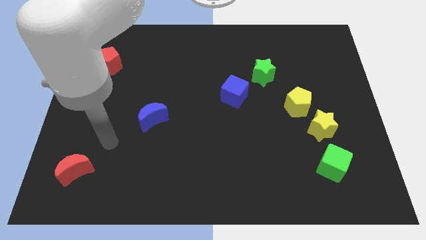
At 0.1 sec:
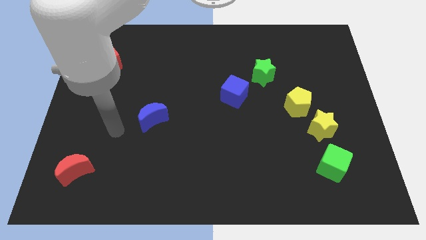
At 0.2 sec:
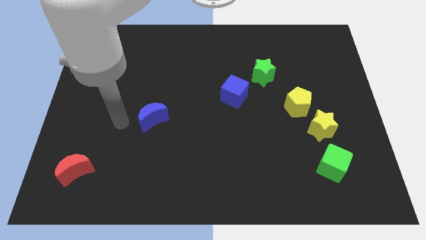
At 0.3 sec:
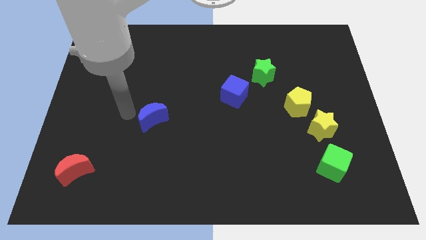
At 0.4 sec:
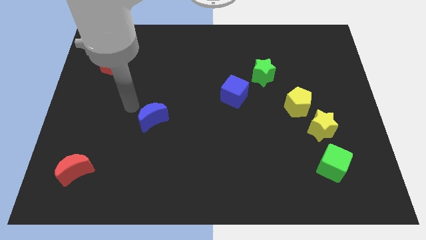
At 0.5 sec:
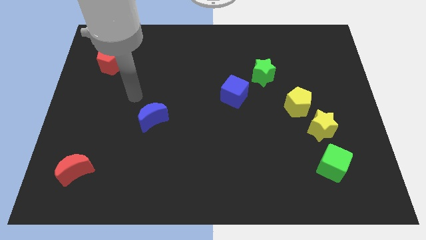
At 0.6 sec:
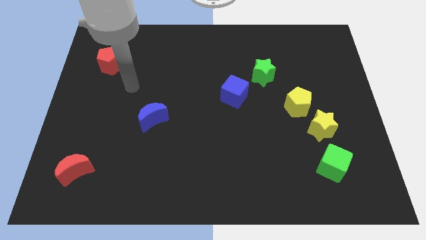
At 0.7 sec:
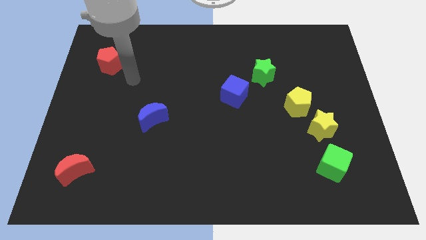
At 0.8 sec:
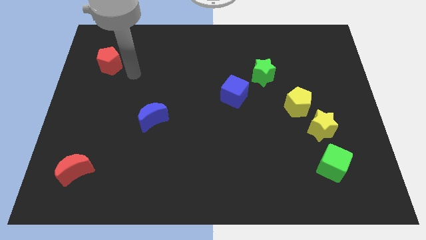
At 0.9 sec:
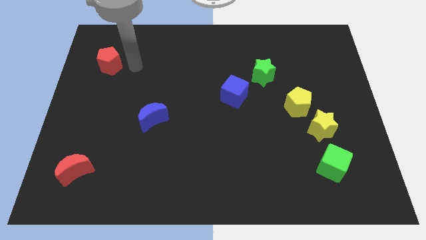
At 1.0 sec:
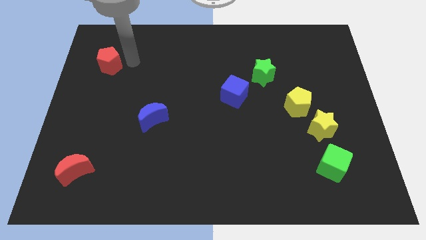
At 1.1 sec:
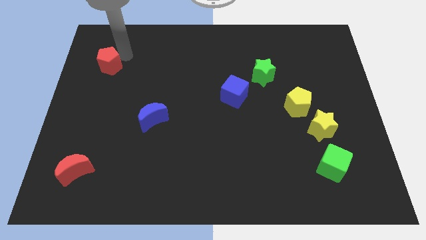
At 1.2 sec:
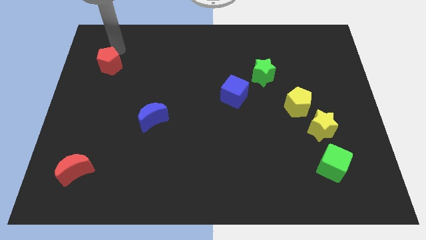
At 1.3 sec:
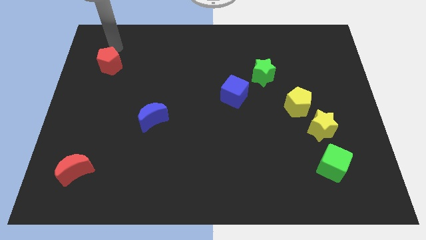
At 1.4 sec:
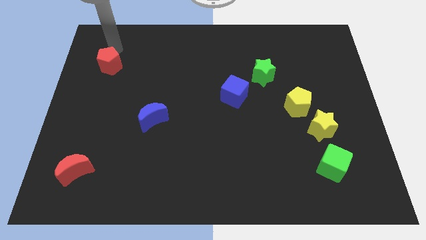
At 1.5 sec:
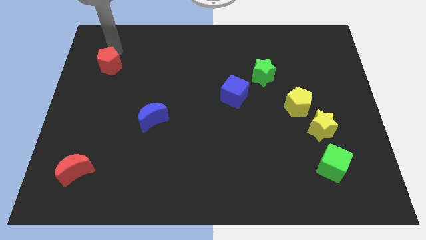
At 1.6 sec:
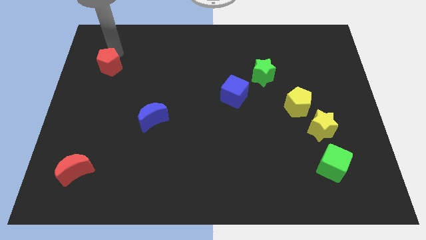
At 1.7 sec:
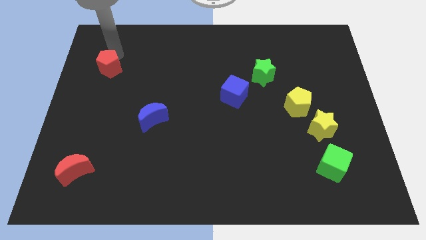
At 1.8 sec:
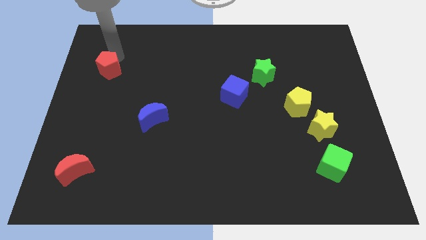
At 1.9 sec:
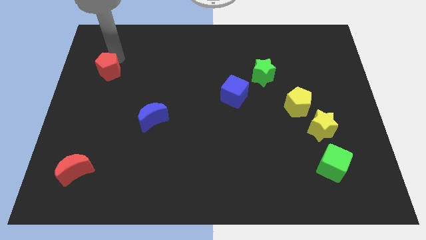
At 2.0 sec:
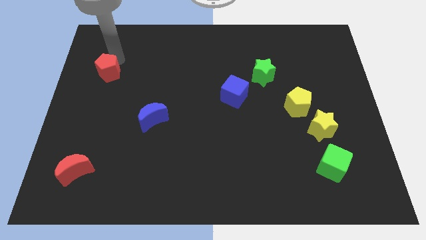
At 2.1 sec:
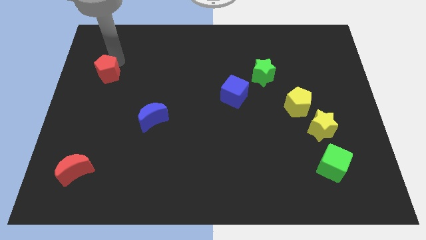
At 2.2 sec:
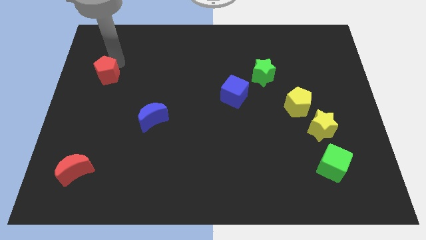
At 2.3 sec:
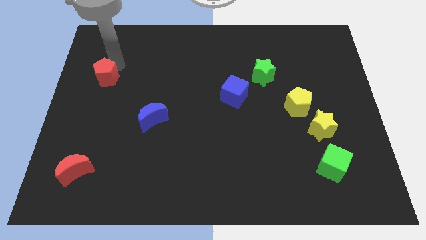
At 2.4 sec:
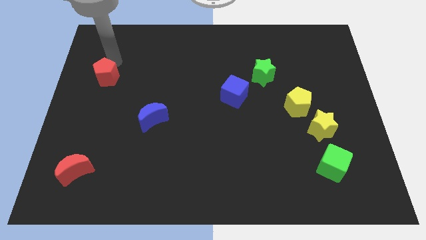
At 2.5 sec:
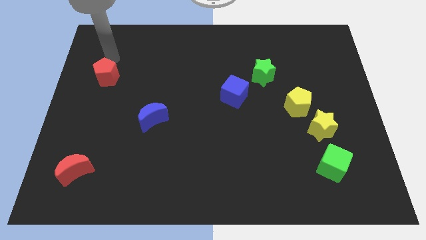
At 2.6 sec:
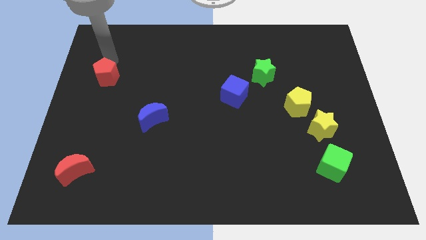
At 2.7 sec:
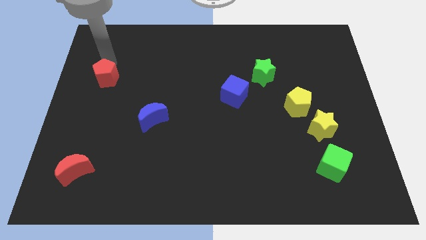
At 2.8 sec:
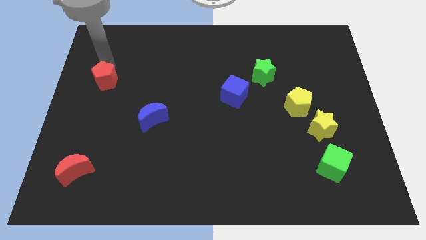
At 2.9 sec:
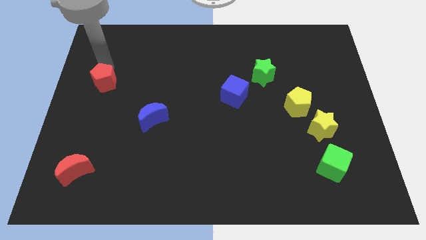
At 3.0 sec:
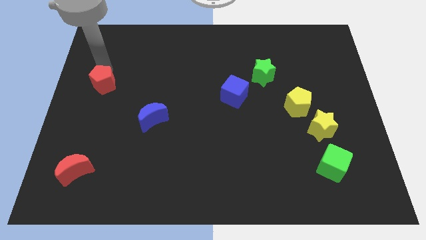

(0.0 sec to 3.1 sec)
push the red pentagon somewhat downwards

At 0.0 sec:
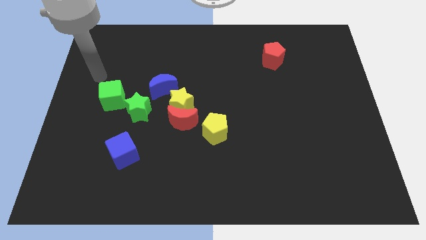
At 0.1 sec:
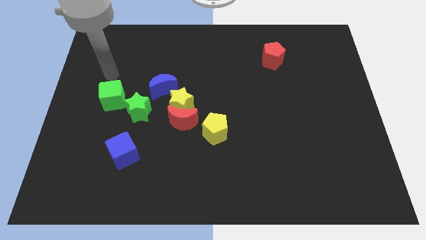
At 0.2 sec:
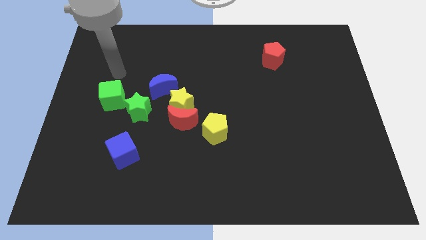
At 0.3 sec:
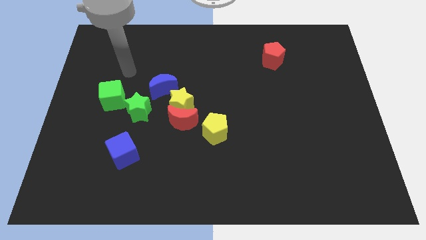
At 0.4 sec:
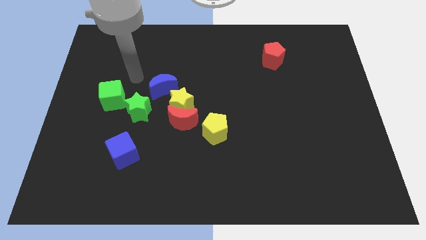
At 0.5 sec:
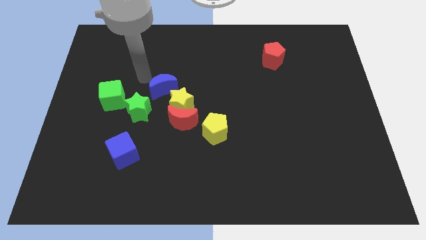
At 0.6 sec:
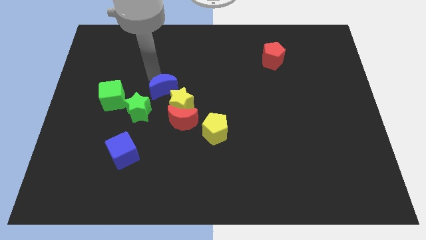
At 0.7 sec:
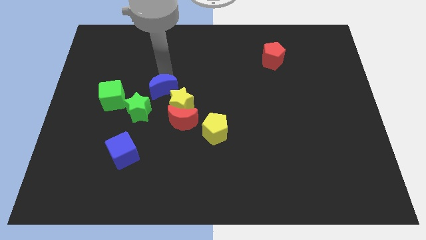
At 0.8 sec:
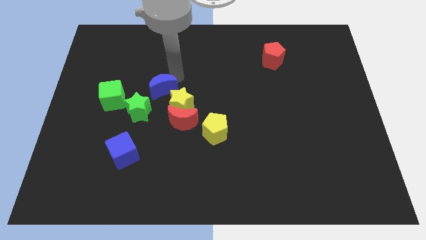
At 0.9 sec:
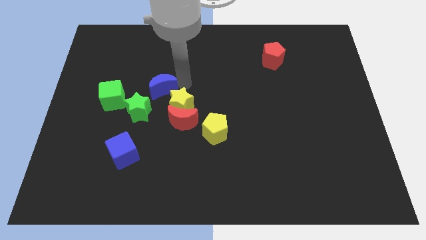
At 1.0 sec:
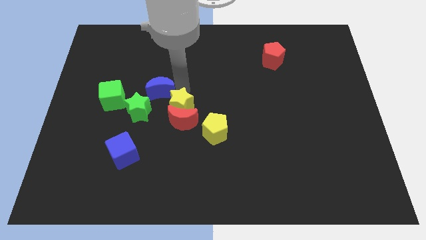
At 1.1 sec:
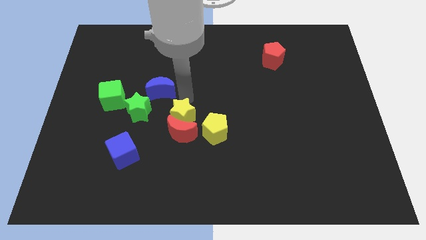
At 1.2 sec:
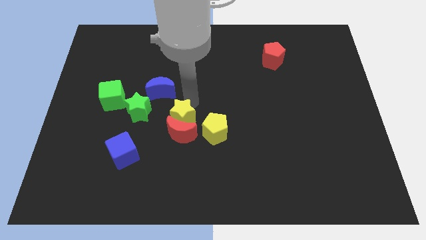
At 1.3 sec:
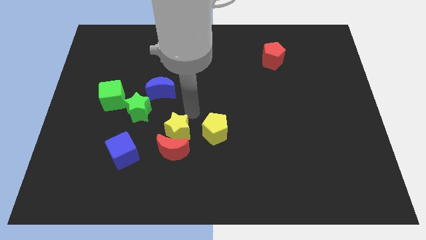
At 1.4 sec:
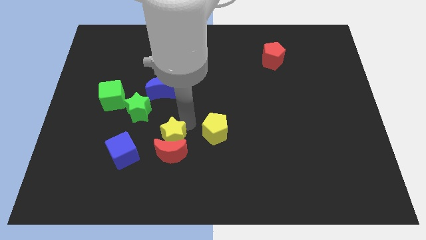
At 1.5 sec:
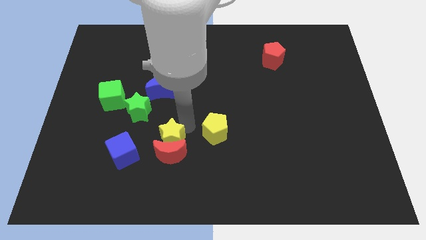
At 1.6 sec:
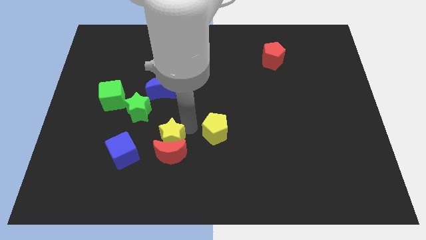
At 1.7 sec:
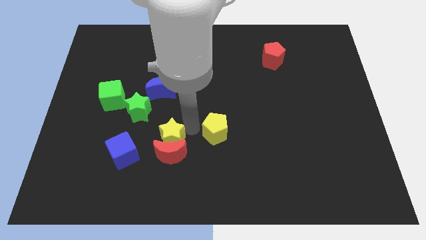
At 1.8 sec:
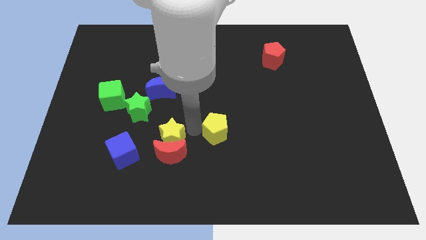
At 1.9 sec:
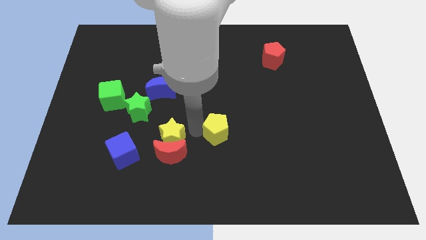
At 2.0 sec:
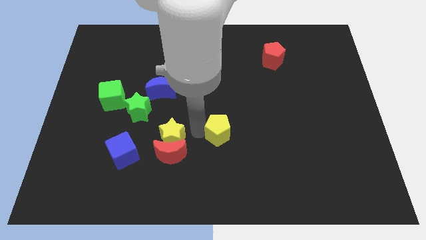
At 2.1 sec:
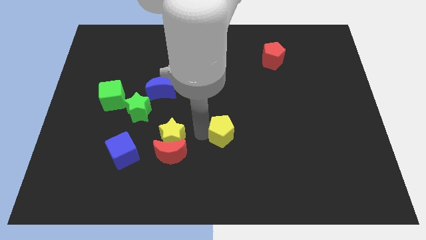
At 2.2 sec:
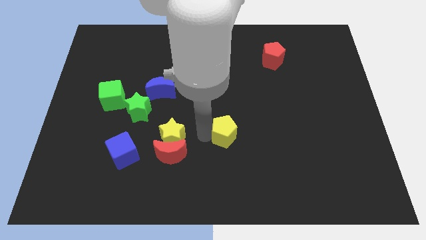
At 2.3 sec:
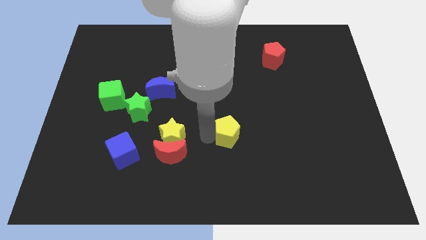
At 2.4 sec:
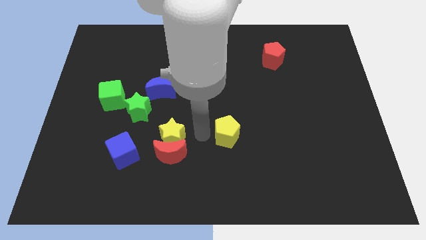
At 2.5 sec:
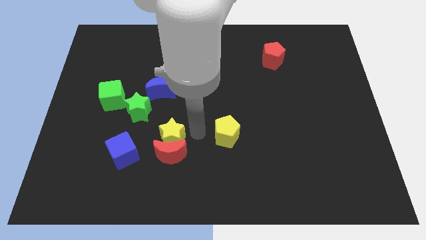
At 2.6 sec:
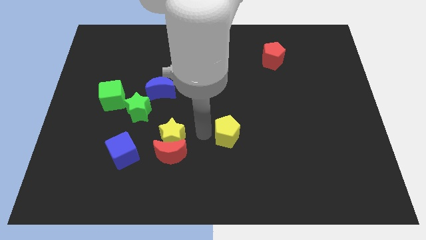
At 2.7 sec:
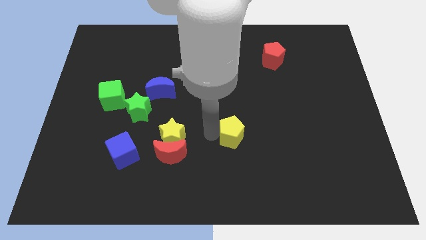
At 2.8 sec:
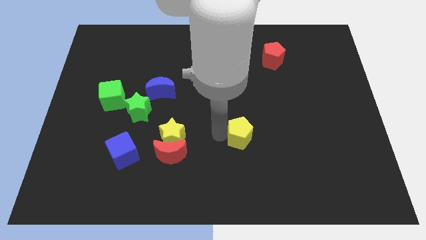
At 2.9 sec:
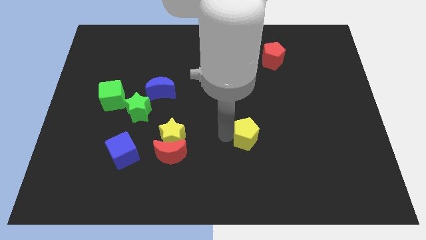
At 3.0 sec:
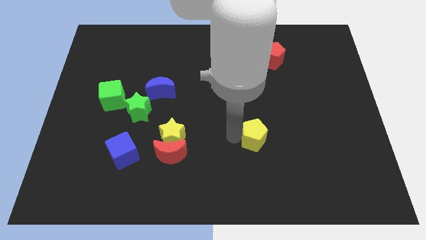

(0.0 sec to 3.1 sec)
slide the yellow pentagon right slightly

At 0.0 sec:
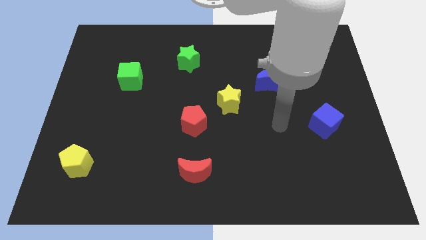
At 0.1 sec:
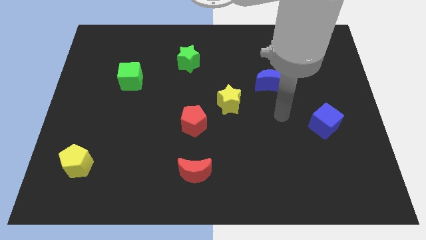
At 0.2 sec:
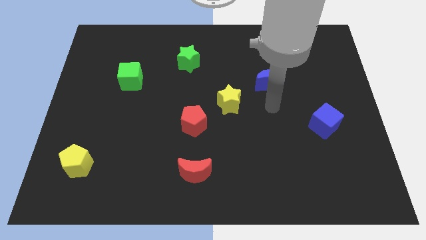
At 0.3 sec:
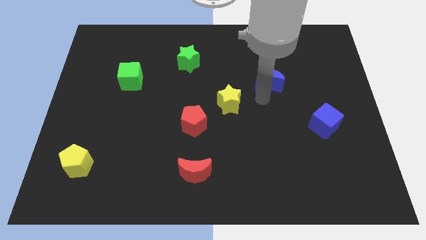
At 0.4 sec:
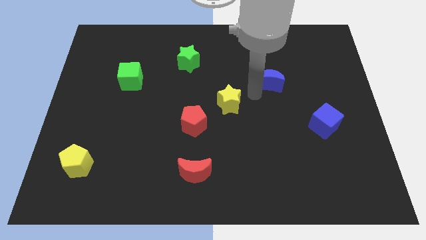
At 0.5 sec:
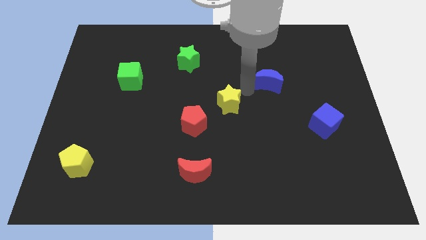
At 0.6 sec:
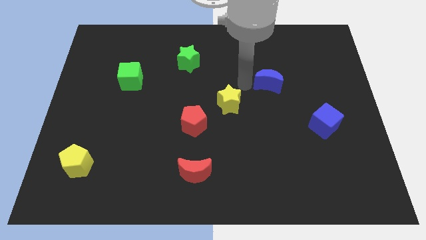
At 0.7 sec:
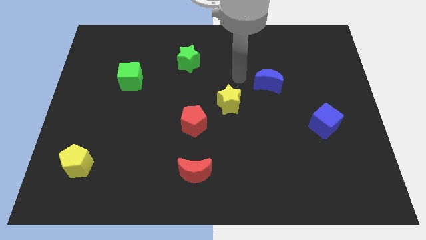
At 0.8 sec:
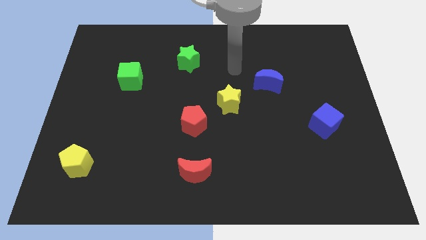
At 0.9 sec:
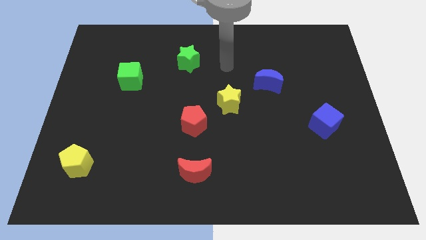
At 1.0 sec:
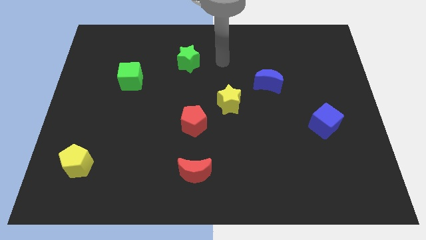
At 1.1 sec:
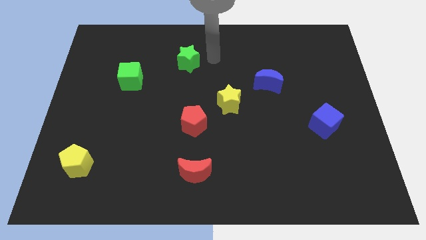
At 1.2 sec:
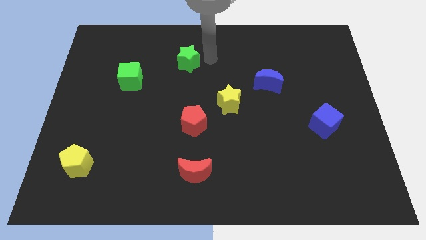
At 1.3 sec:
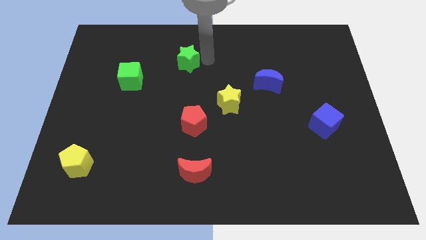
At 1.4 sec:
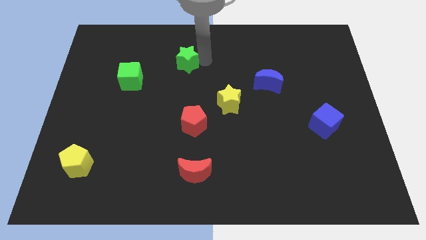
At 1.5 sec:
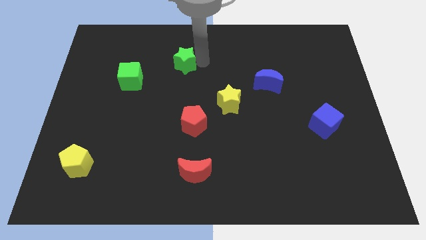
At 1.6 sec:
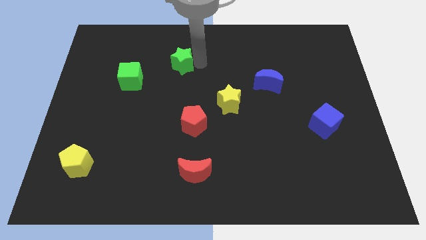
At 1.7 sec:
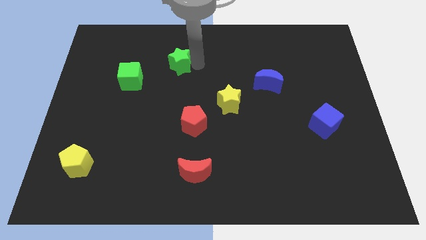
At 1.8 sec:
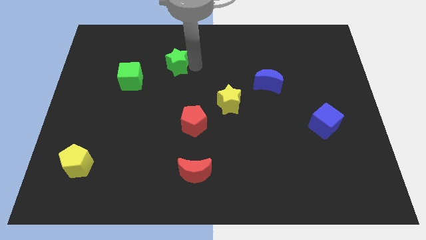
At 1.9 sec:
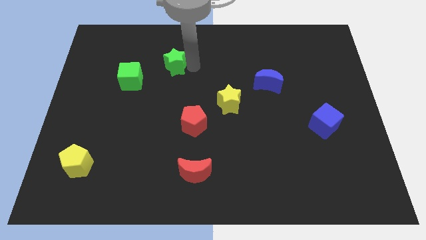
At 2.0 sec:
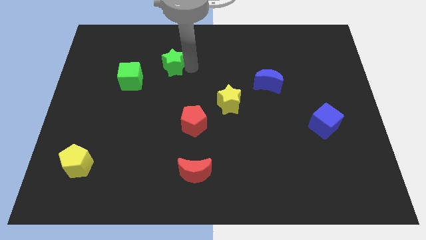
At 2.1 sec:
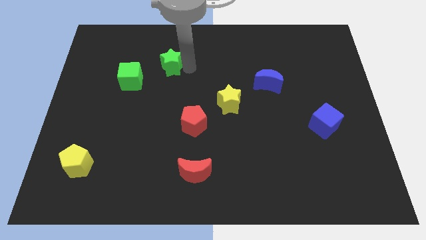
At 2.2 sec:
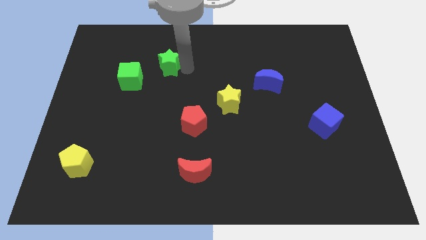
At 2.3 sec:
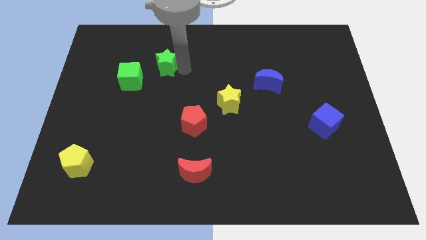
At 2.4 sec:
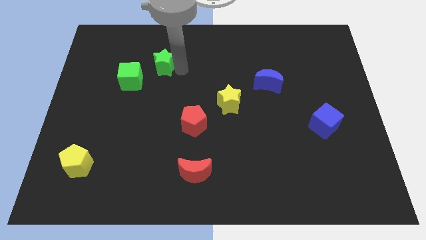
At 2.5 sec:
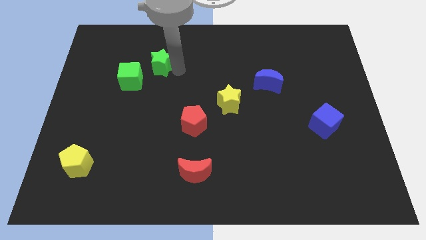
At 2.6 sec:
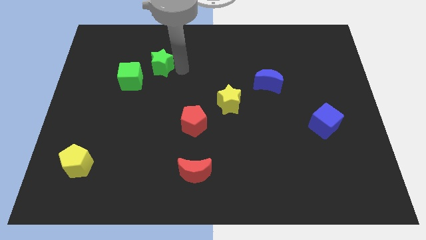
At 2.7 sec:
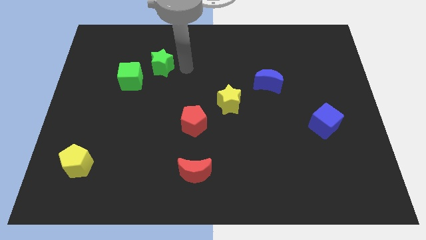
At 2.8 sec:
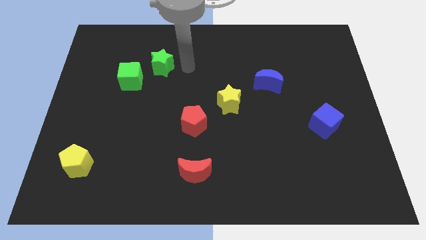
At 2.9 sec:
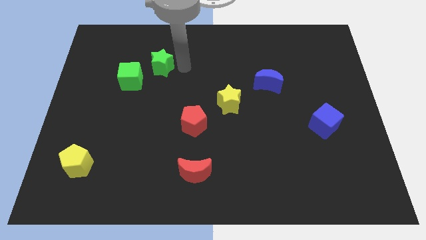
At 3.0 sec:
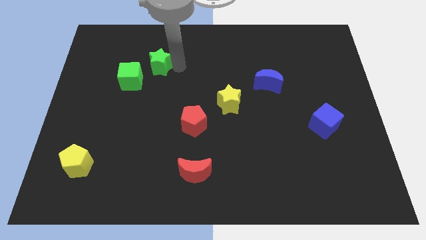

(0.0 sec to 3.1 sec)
slightly push the green star to the left
